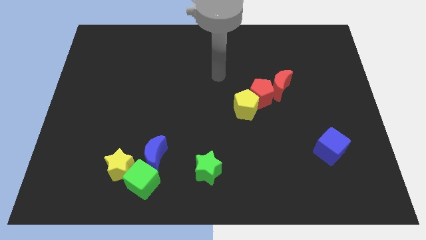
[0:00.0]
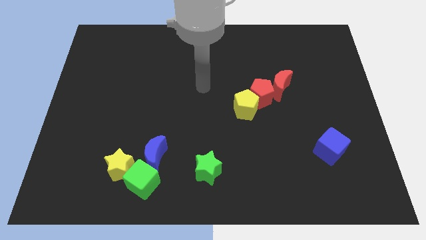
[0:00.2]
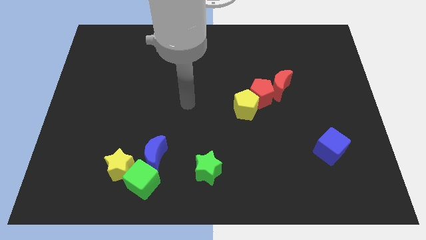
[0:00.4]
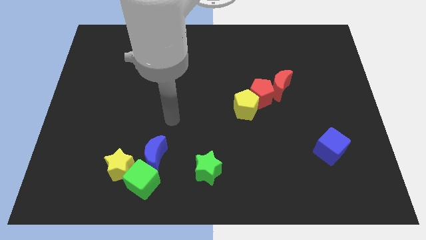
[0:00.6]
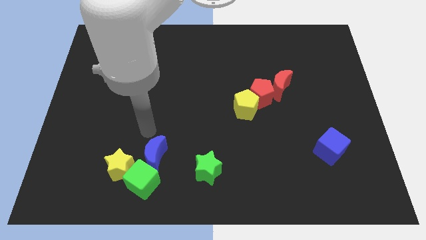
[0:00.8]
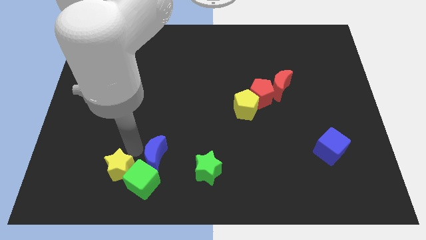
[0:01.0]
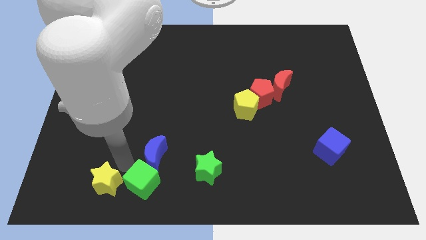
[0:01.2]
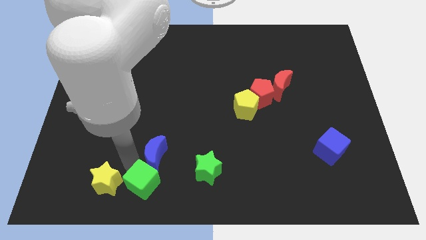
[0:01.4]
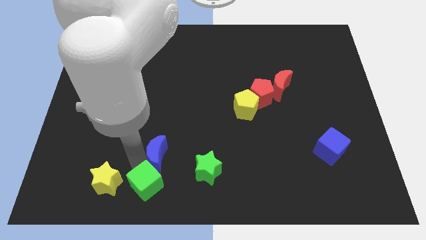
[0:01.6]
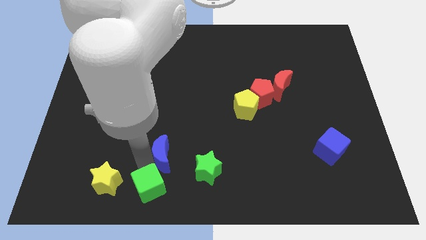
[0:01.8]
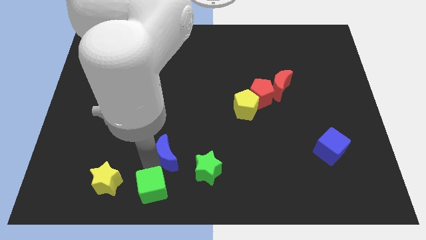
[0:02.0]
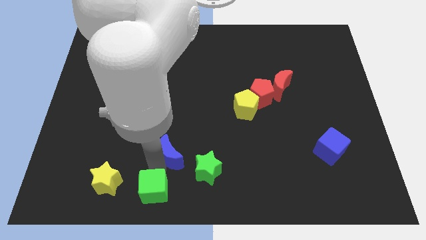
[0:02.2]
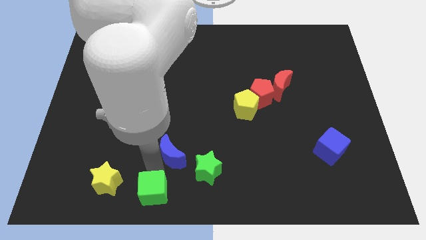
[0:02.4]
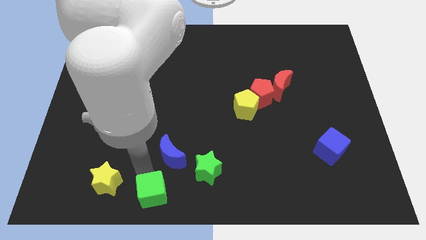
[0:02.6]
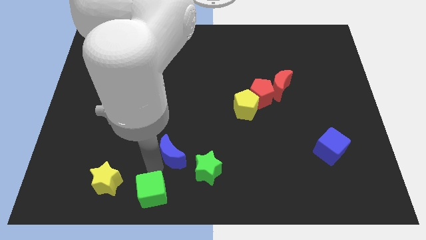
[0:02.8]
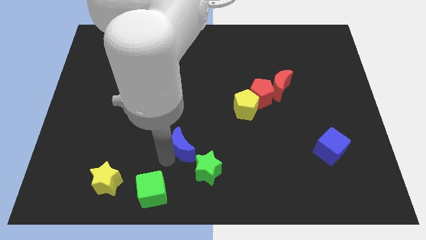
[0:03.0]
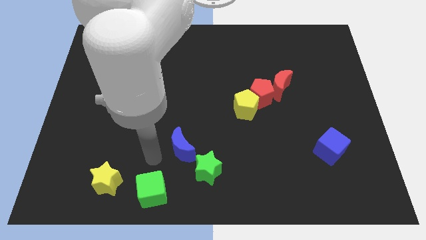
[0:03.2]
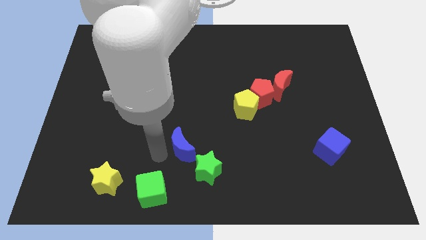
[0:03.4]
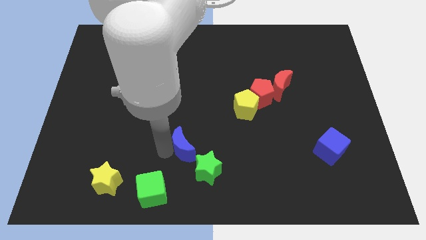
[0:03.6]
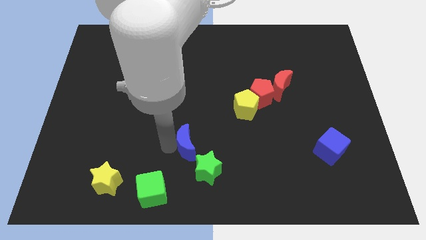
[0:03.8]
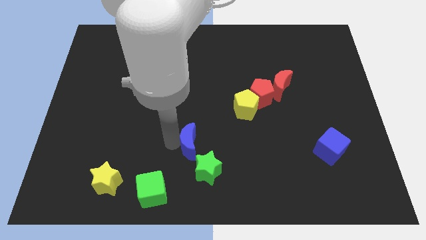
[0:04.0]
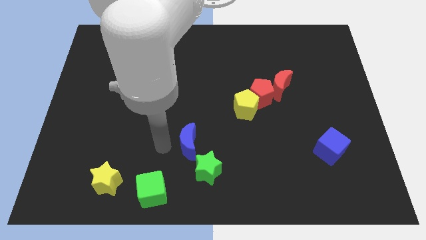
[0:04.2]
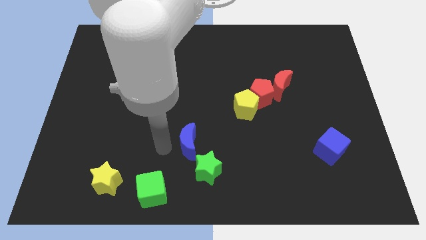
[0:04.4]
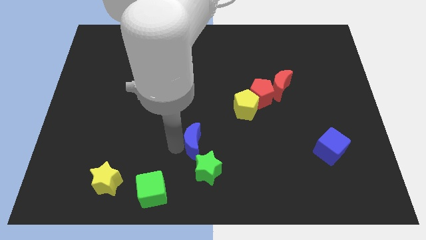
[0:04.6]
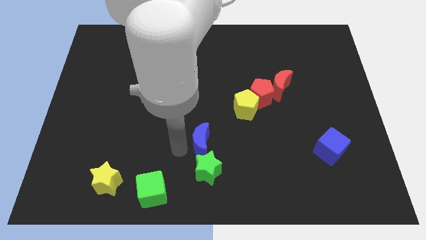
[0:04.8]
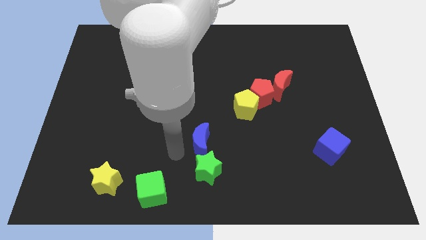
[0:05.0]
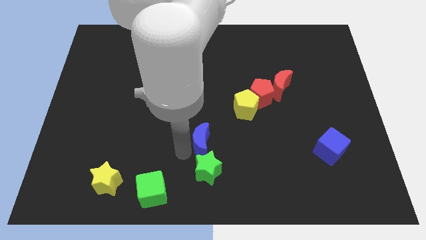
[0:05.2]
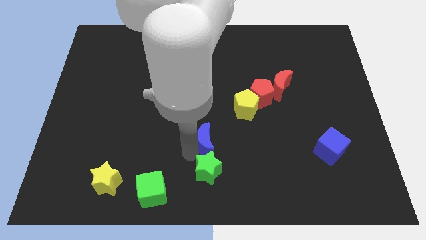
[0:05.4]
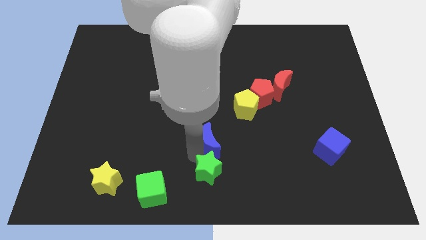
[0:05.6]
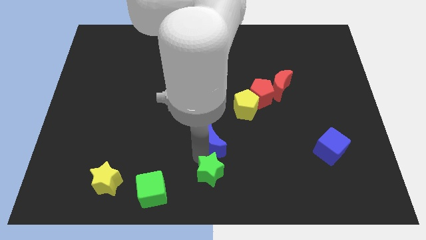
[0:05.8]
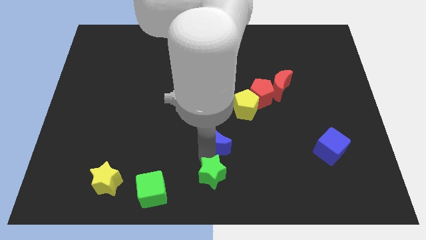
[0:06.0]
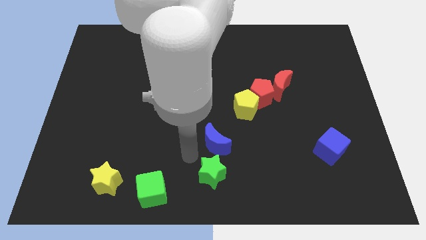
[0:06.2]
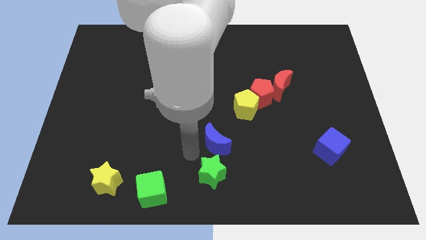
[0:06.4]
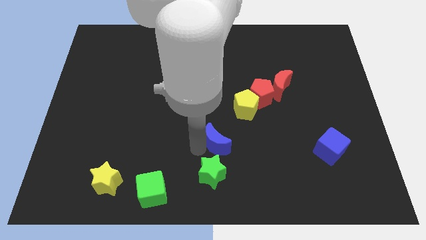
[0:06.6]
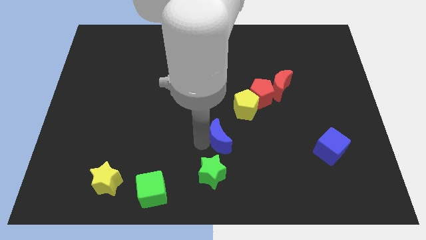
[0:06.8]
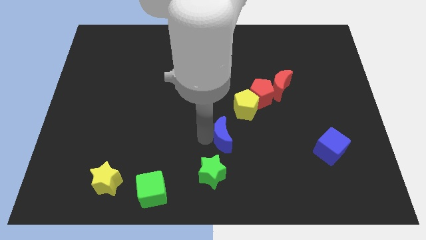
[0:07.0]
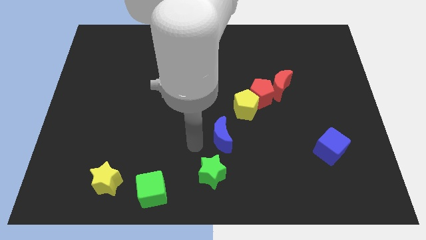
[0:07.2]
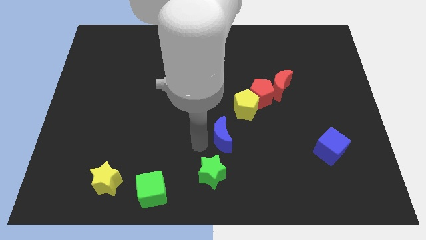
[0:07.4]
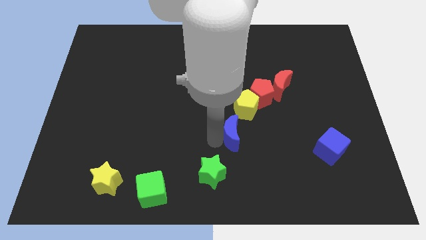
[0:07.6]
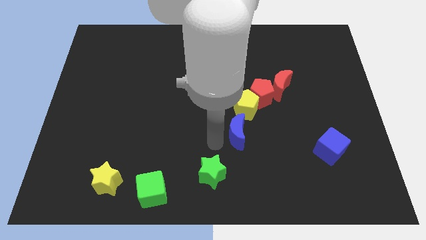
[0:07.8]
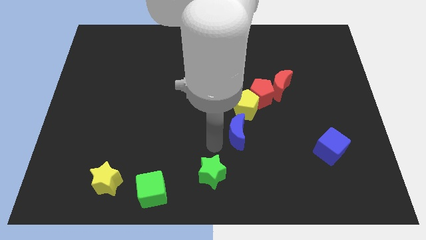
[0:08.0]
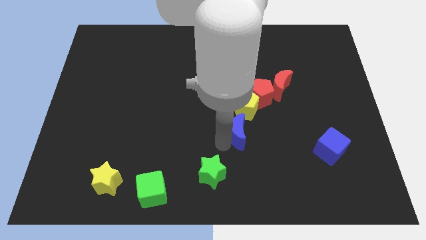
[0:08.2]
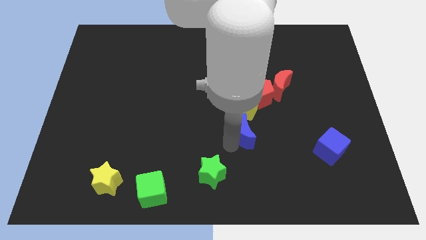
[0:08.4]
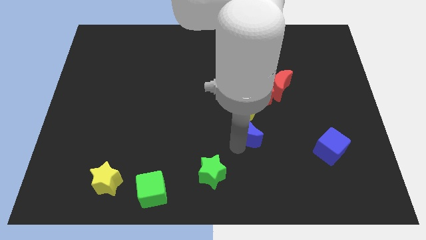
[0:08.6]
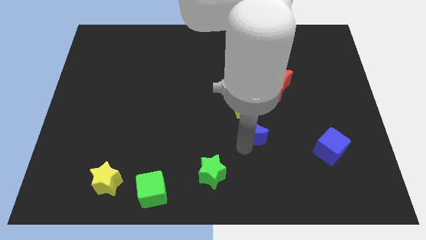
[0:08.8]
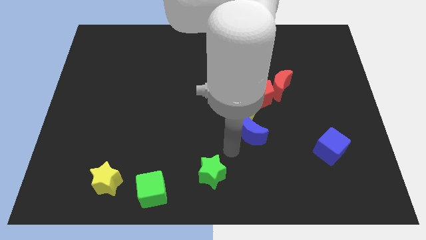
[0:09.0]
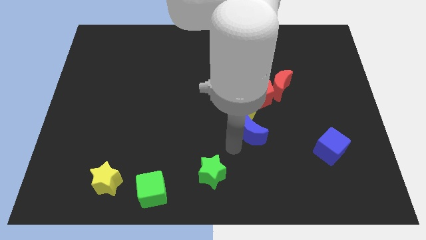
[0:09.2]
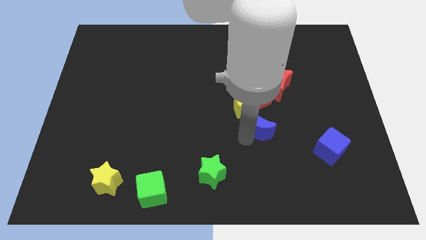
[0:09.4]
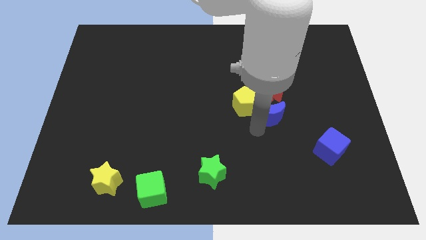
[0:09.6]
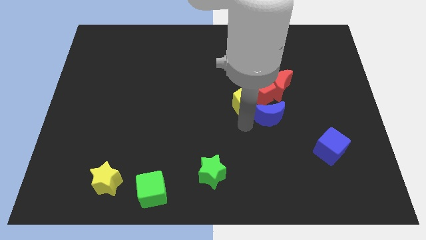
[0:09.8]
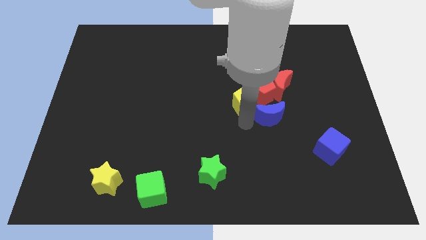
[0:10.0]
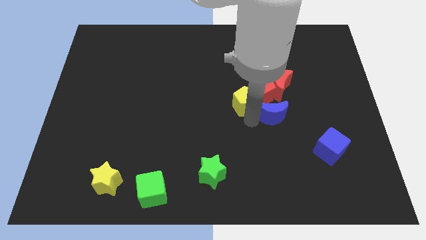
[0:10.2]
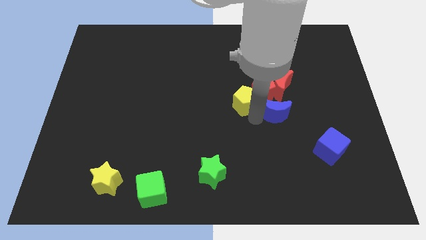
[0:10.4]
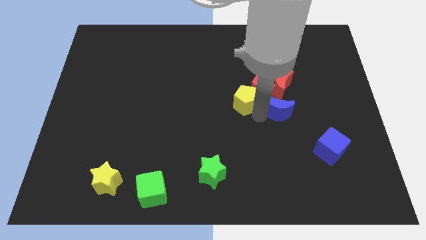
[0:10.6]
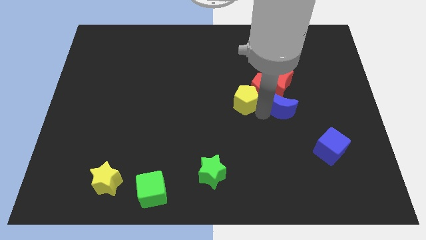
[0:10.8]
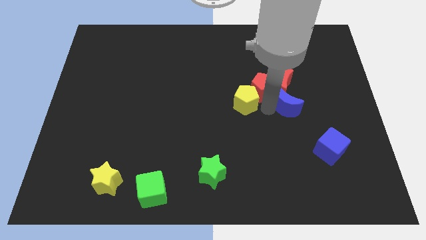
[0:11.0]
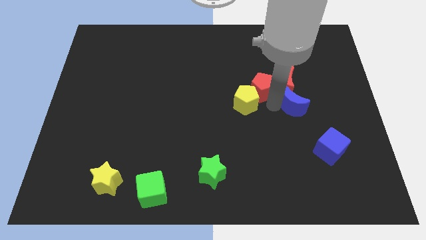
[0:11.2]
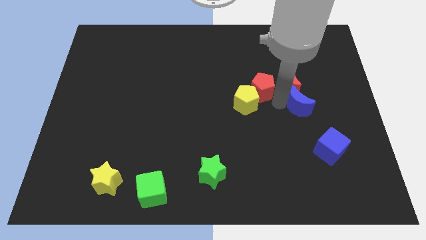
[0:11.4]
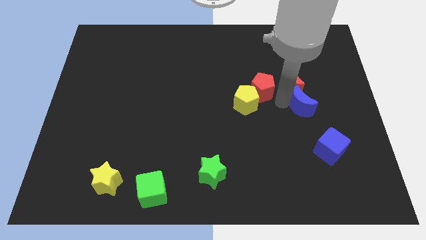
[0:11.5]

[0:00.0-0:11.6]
put the blue moon to the top side of the blue cube

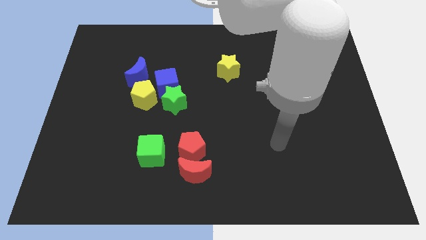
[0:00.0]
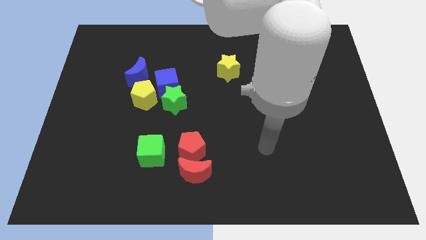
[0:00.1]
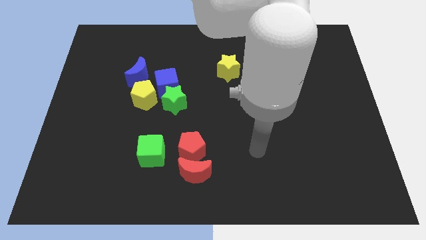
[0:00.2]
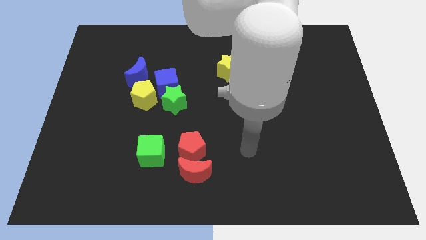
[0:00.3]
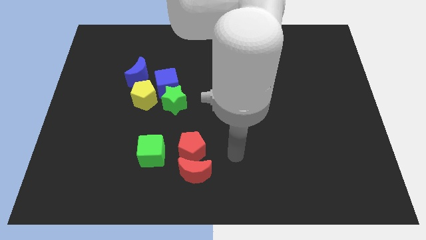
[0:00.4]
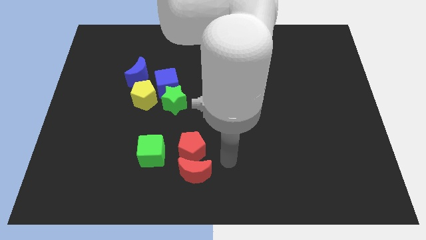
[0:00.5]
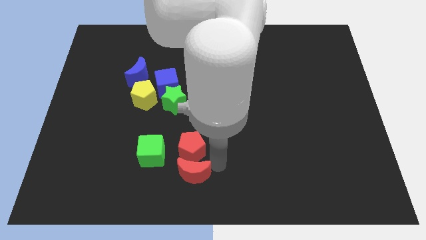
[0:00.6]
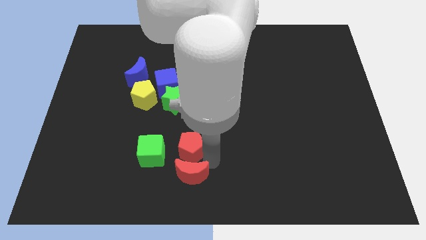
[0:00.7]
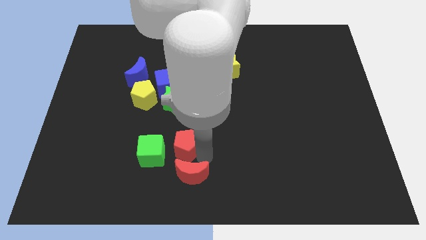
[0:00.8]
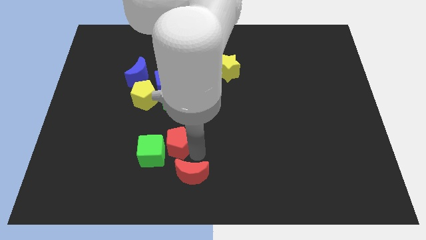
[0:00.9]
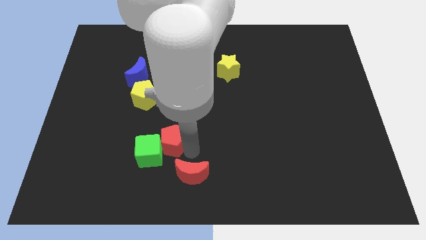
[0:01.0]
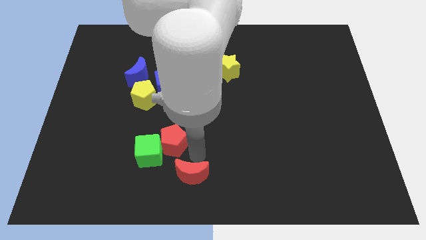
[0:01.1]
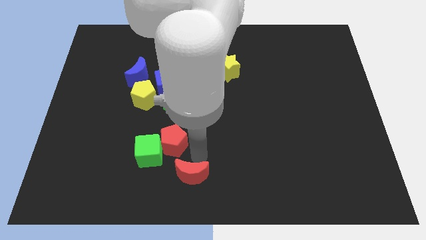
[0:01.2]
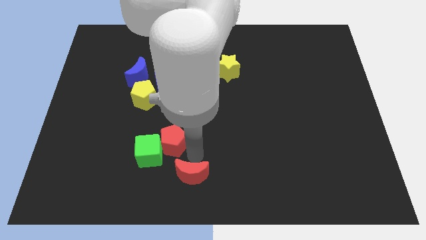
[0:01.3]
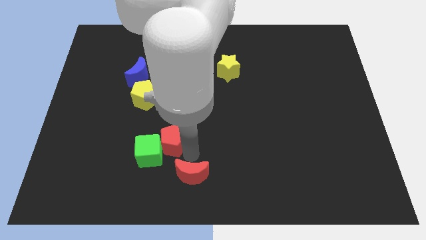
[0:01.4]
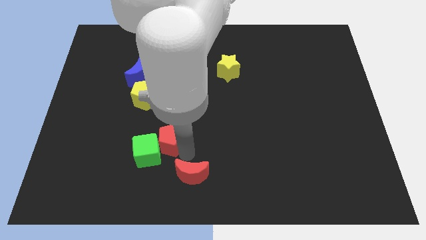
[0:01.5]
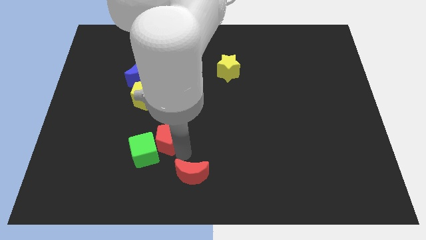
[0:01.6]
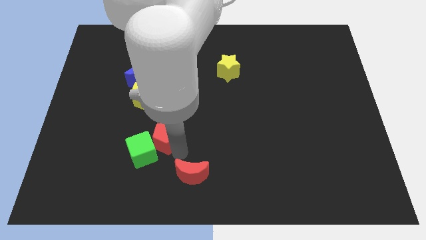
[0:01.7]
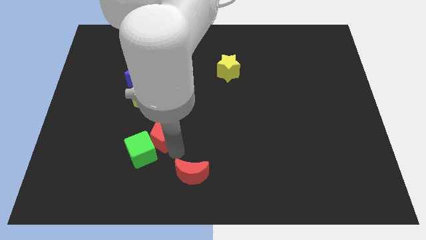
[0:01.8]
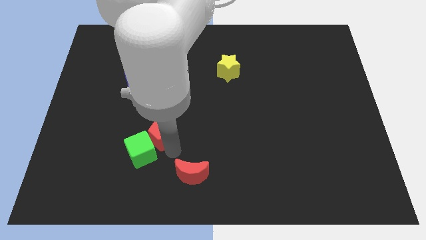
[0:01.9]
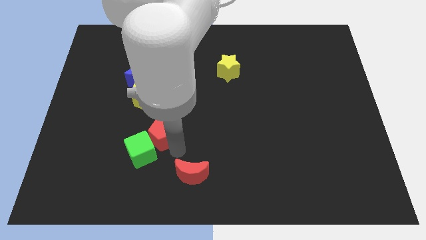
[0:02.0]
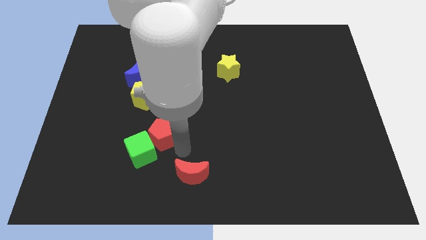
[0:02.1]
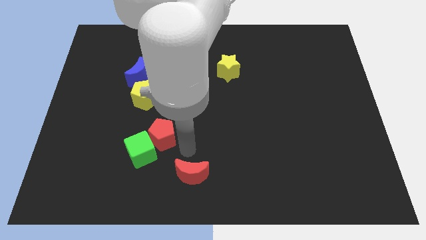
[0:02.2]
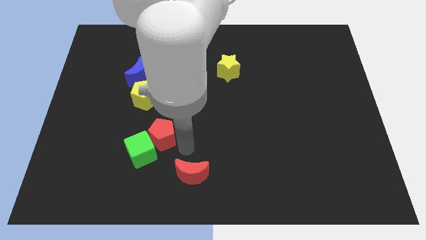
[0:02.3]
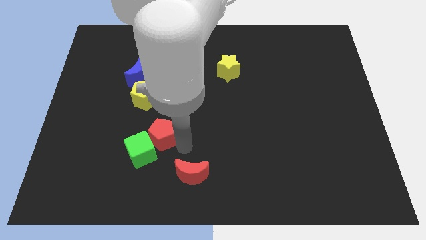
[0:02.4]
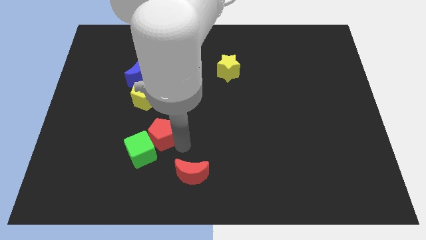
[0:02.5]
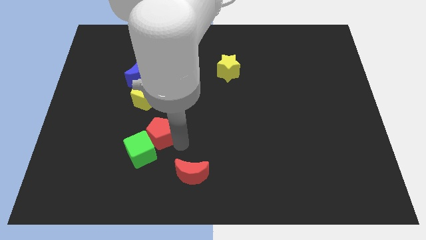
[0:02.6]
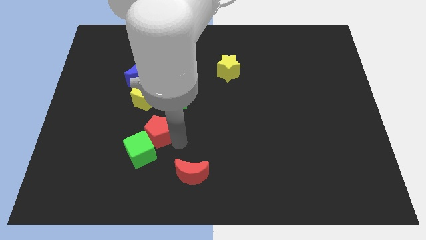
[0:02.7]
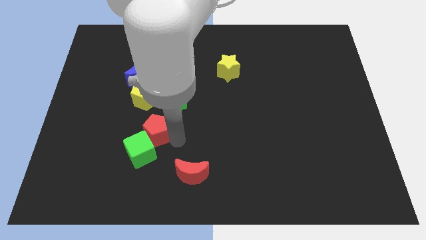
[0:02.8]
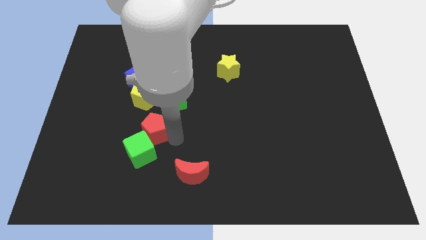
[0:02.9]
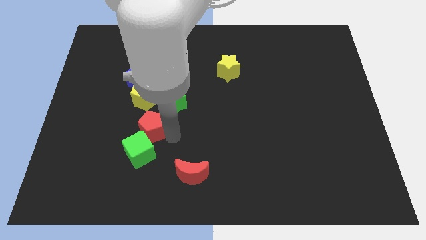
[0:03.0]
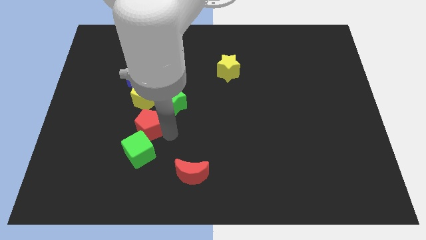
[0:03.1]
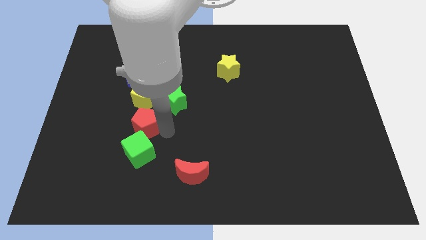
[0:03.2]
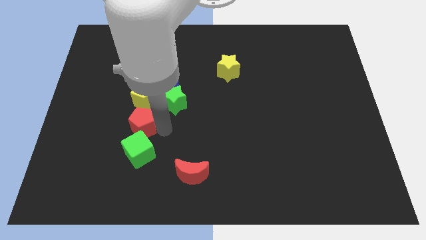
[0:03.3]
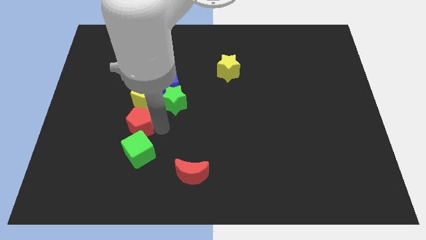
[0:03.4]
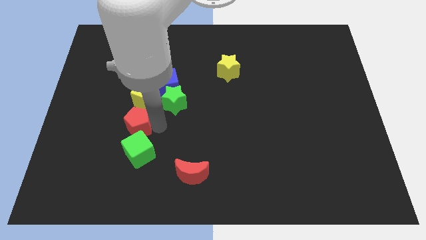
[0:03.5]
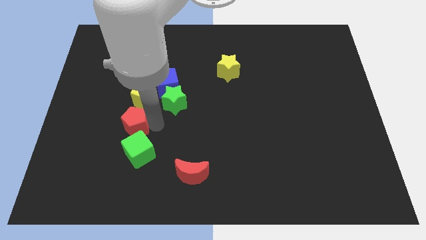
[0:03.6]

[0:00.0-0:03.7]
push the red pentagon diagonally down and to the left of the yellow pentagon
